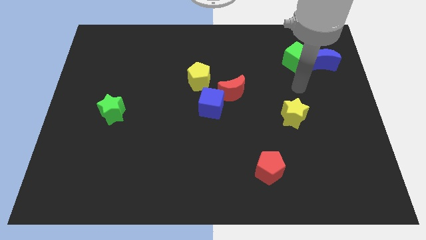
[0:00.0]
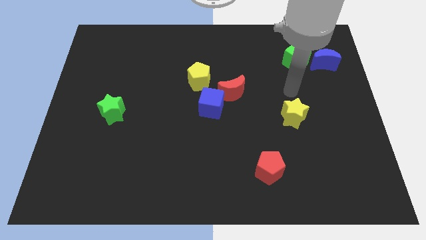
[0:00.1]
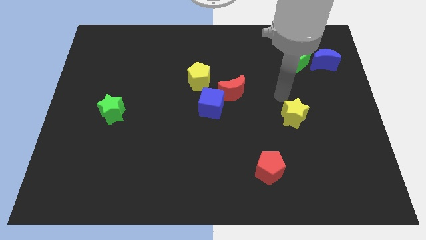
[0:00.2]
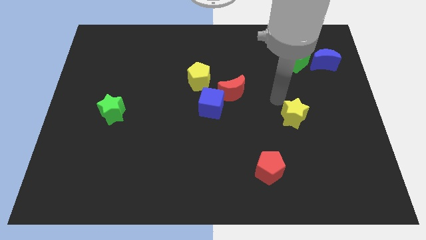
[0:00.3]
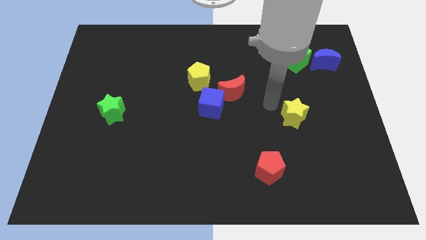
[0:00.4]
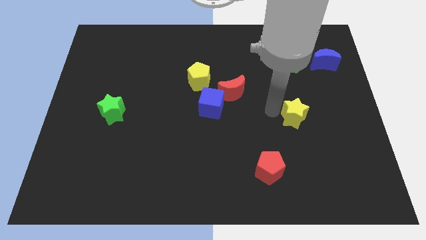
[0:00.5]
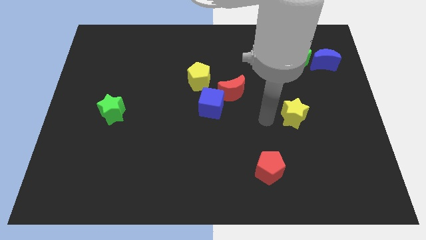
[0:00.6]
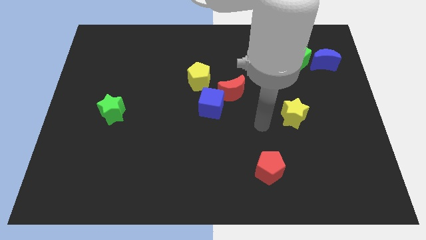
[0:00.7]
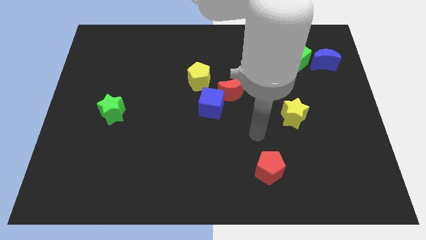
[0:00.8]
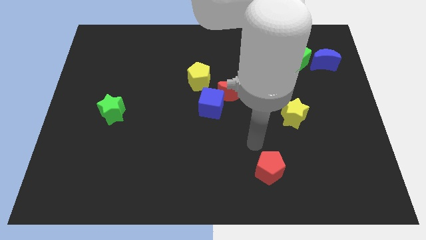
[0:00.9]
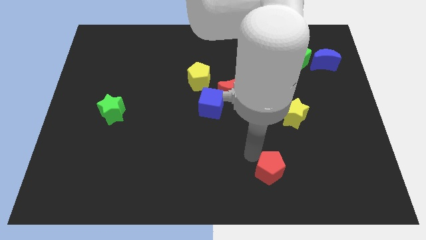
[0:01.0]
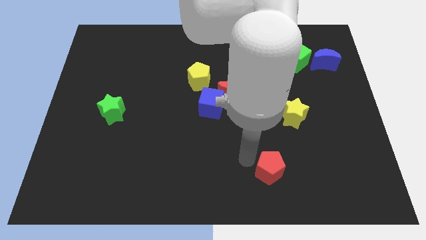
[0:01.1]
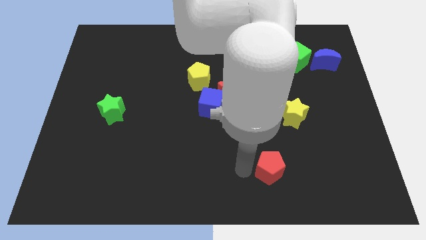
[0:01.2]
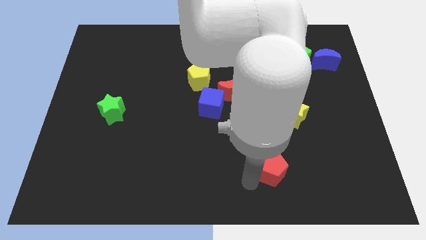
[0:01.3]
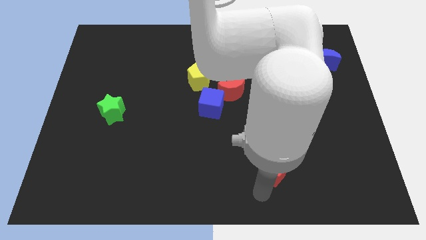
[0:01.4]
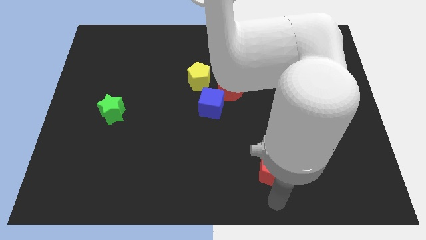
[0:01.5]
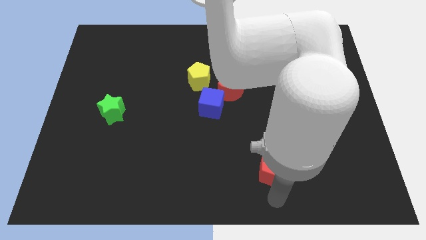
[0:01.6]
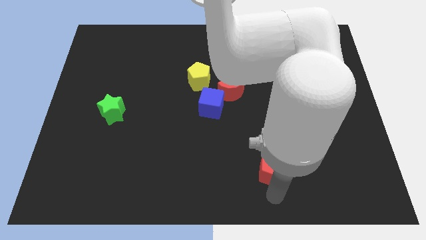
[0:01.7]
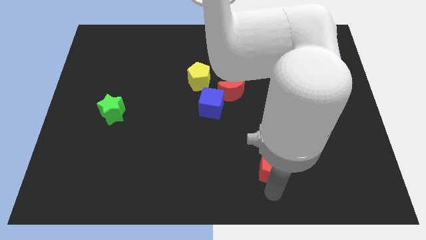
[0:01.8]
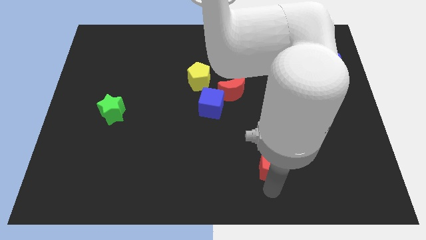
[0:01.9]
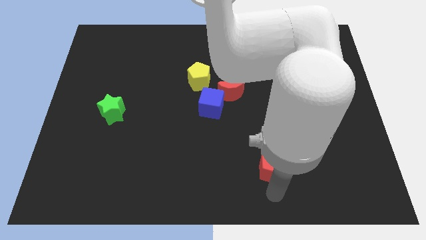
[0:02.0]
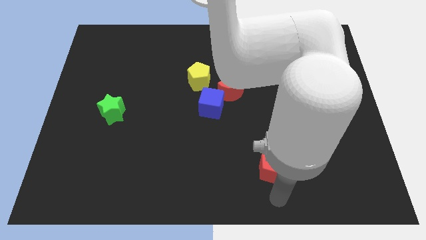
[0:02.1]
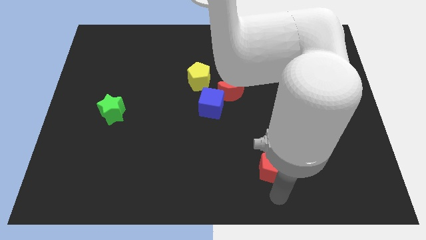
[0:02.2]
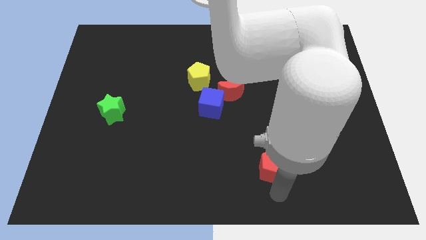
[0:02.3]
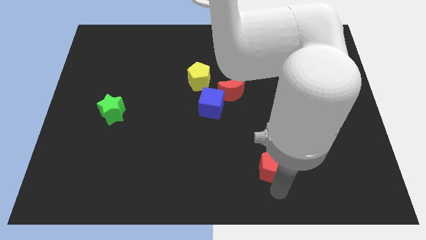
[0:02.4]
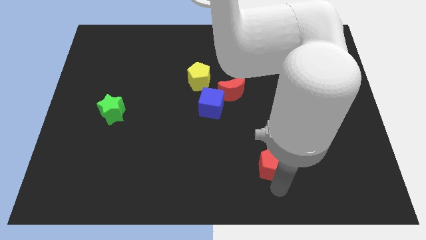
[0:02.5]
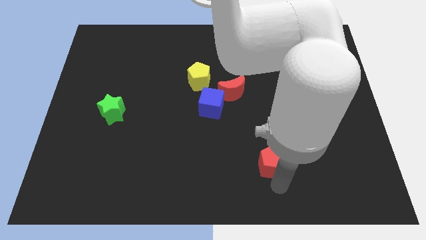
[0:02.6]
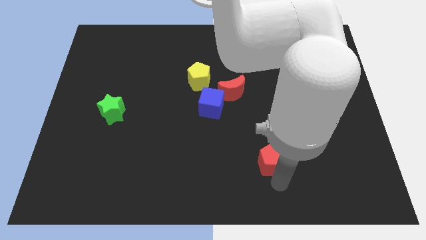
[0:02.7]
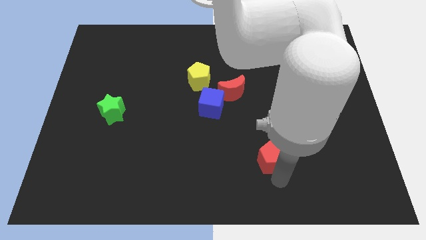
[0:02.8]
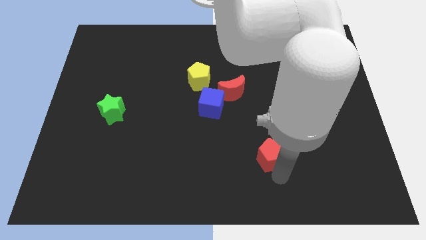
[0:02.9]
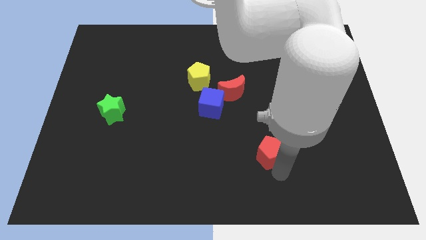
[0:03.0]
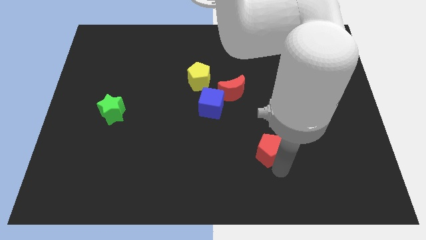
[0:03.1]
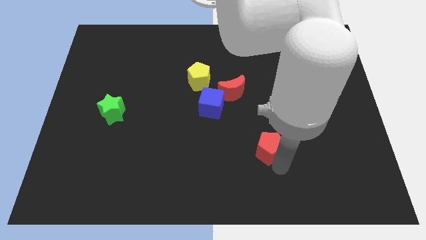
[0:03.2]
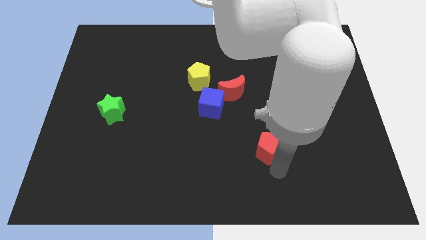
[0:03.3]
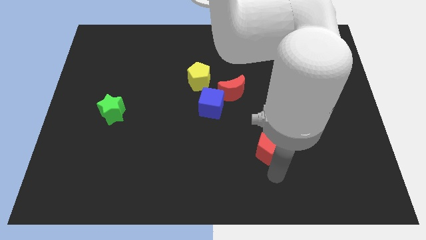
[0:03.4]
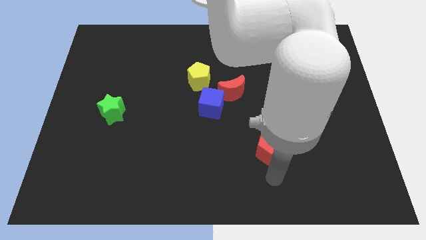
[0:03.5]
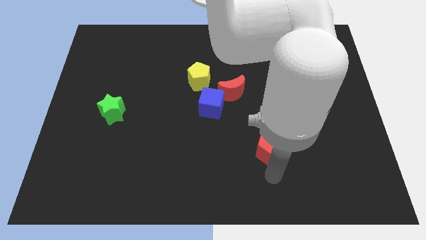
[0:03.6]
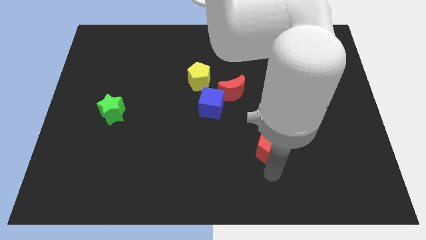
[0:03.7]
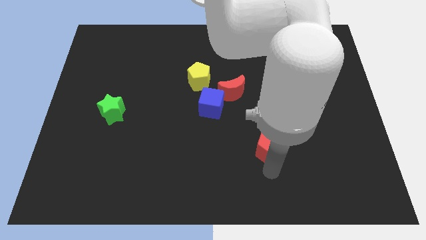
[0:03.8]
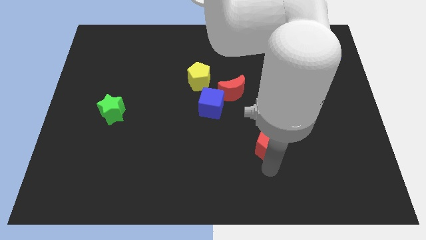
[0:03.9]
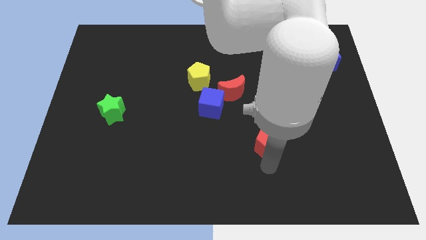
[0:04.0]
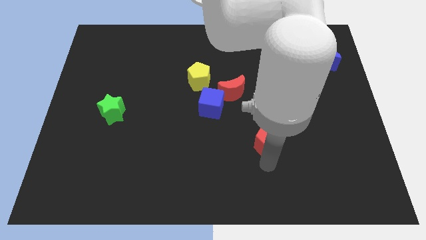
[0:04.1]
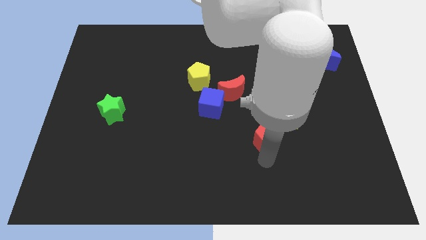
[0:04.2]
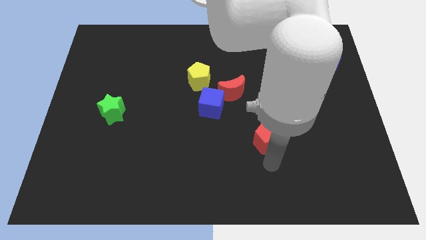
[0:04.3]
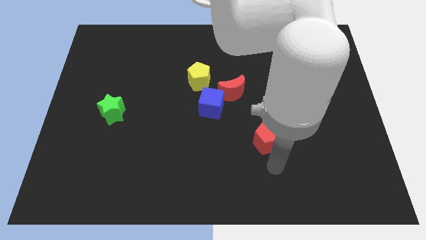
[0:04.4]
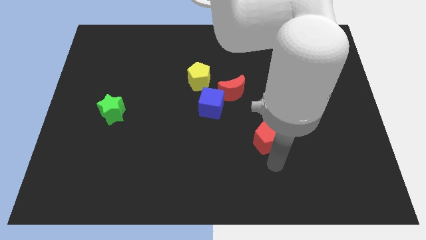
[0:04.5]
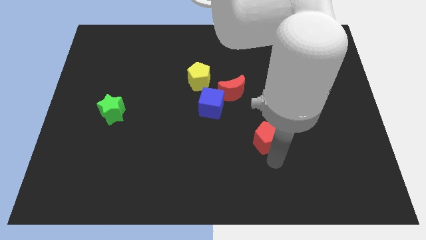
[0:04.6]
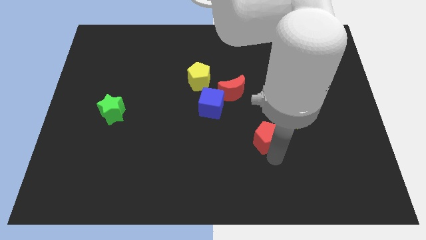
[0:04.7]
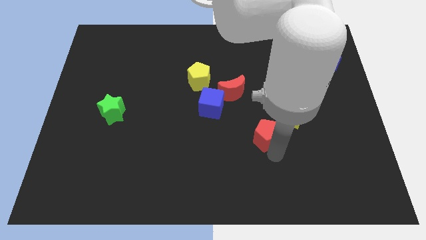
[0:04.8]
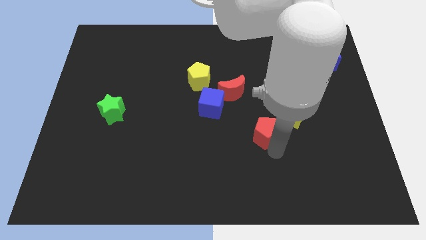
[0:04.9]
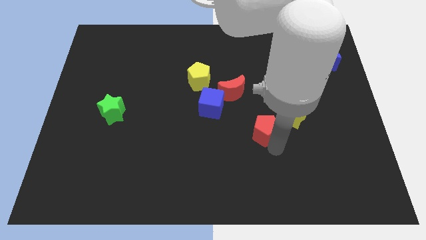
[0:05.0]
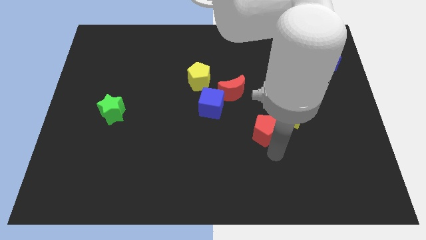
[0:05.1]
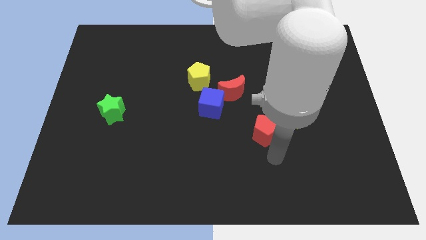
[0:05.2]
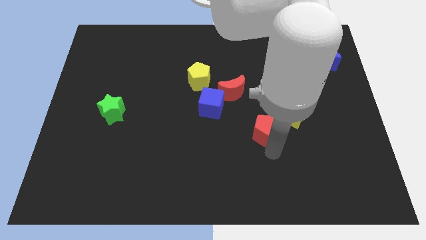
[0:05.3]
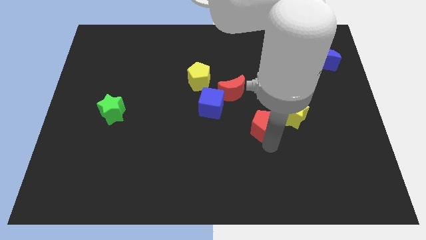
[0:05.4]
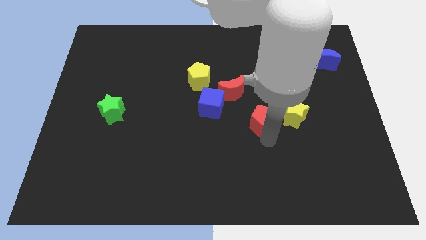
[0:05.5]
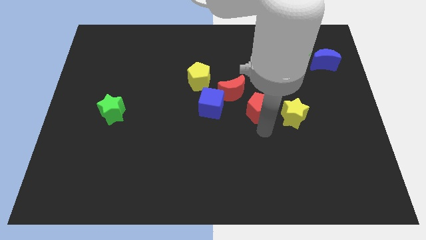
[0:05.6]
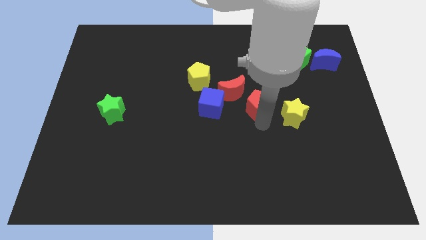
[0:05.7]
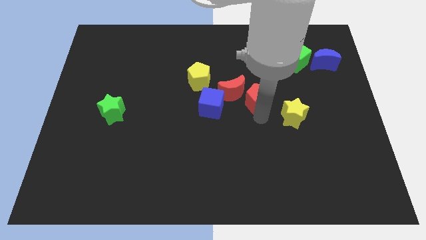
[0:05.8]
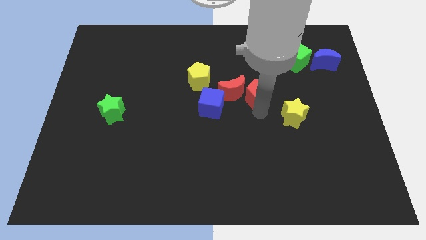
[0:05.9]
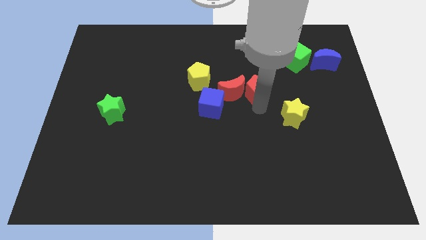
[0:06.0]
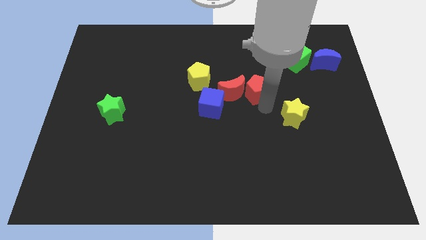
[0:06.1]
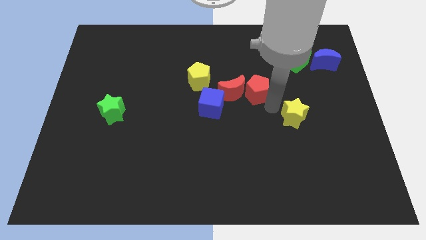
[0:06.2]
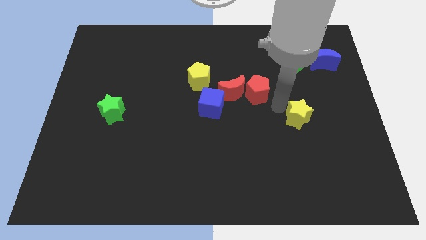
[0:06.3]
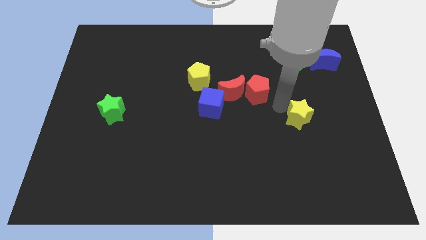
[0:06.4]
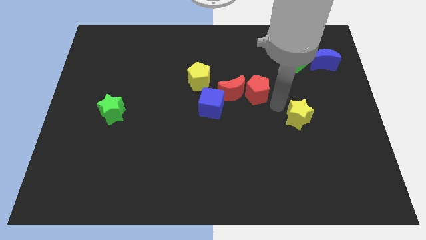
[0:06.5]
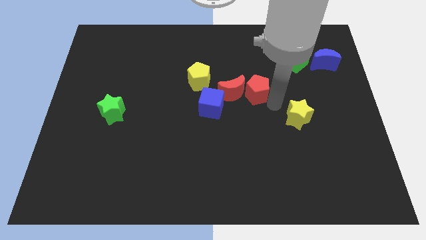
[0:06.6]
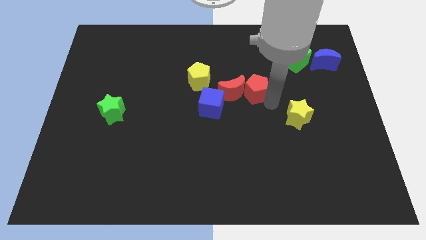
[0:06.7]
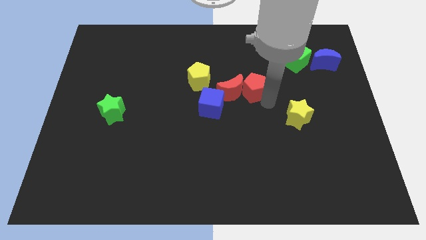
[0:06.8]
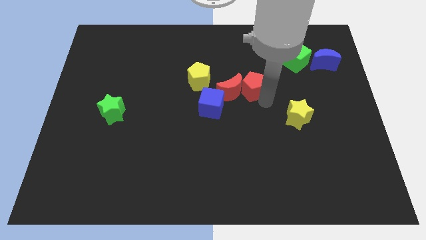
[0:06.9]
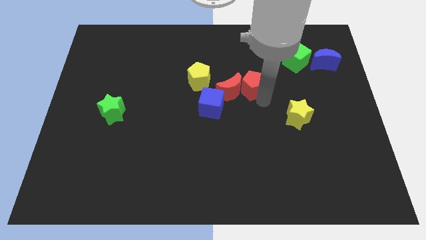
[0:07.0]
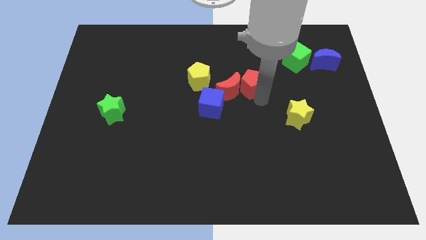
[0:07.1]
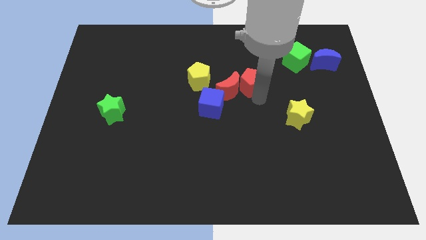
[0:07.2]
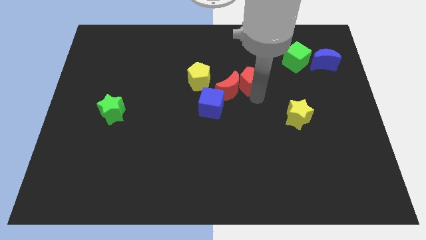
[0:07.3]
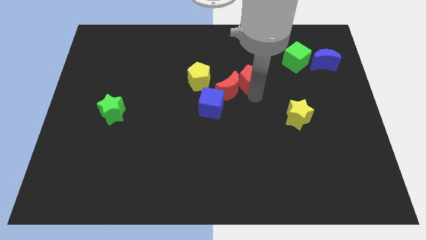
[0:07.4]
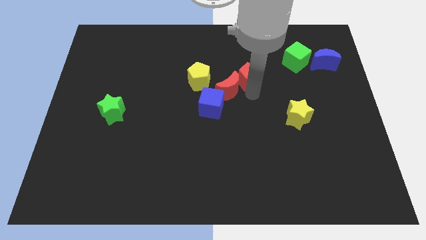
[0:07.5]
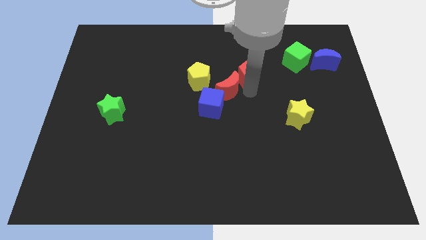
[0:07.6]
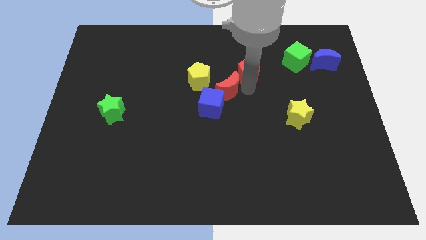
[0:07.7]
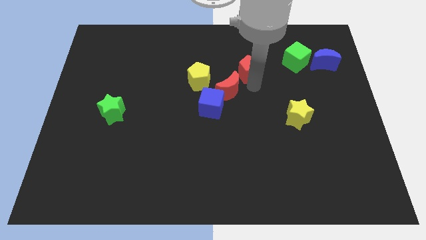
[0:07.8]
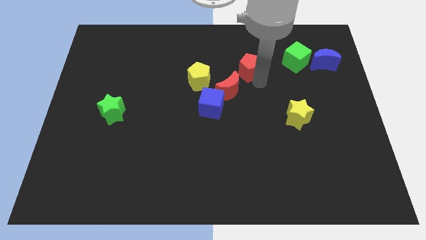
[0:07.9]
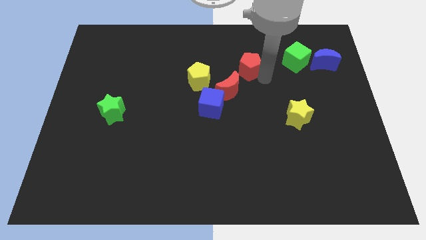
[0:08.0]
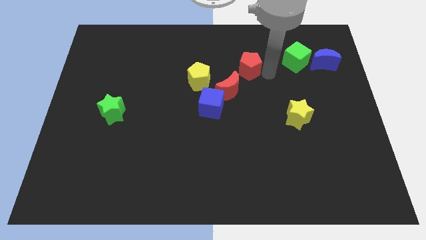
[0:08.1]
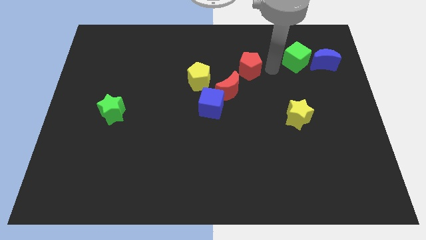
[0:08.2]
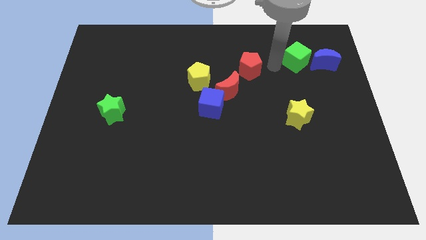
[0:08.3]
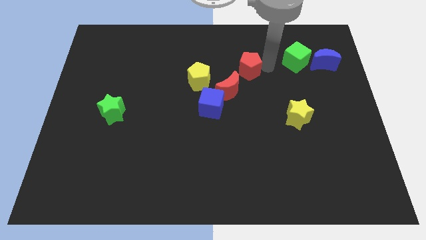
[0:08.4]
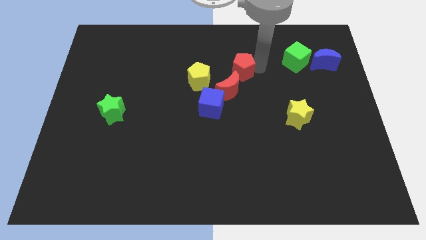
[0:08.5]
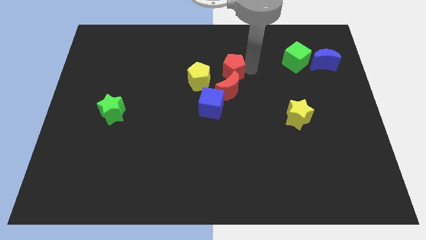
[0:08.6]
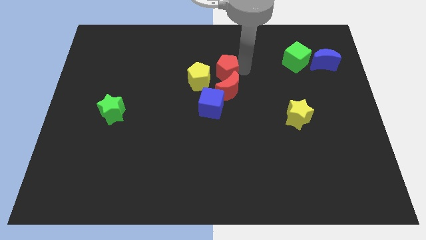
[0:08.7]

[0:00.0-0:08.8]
move the red pentagon above the blue cube
